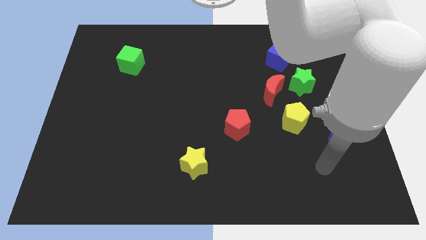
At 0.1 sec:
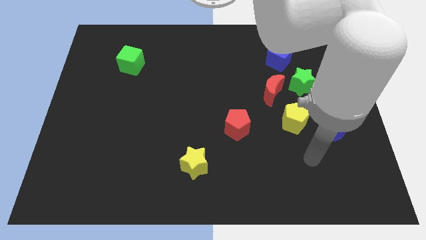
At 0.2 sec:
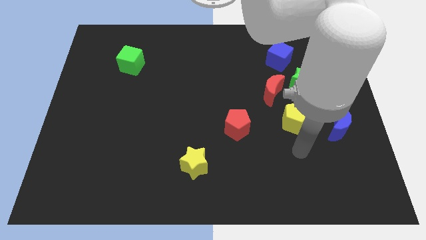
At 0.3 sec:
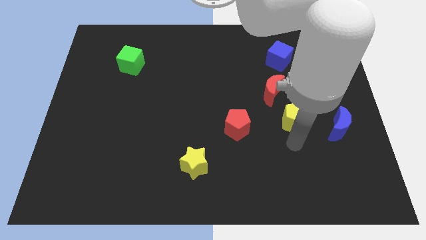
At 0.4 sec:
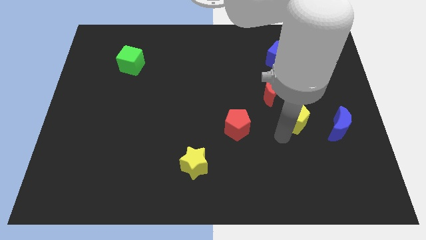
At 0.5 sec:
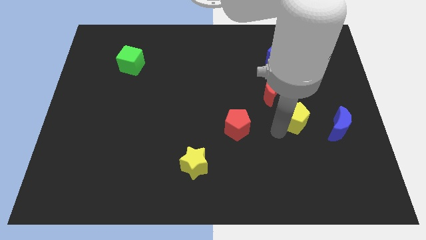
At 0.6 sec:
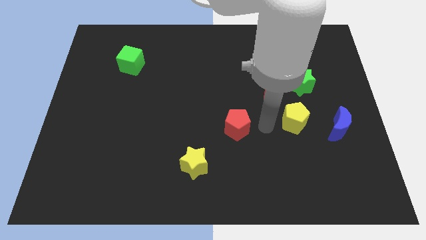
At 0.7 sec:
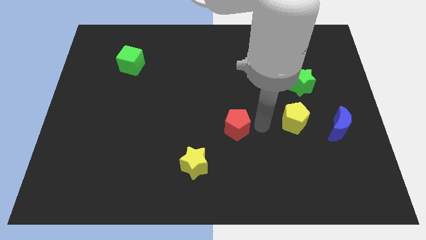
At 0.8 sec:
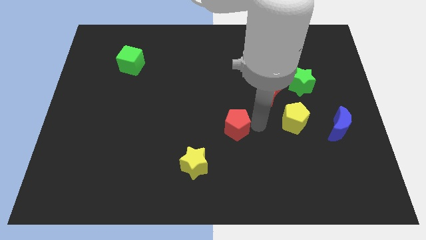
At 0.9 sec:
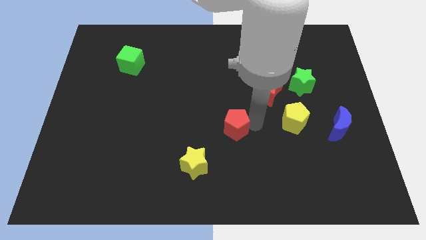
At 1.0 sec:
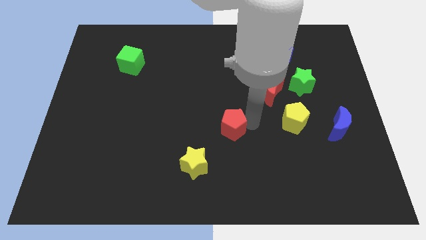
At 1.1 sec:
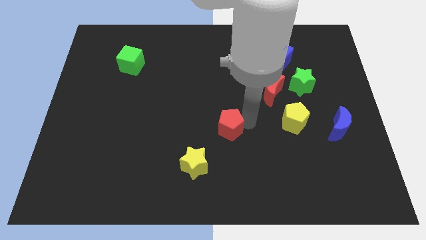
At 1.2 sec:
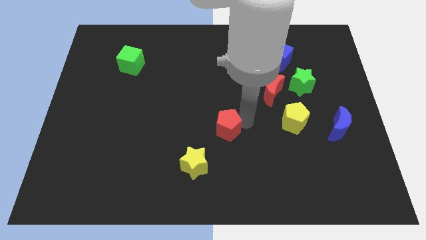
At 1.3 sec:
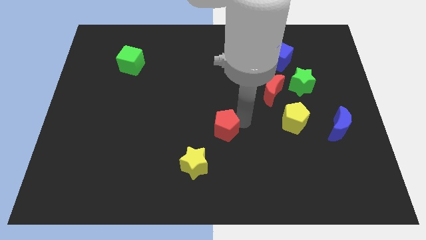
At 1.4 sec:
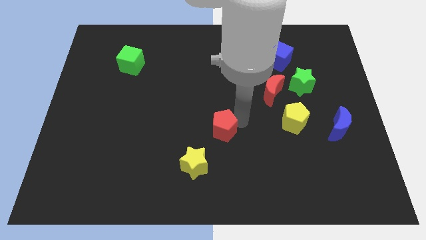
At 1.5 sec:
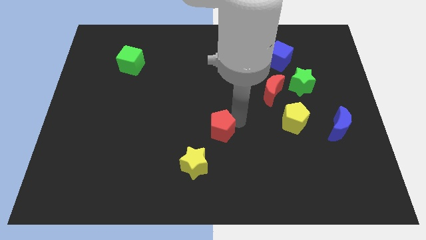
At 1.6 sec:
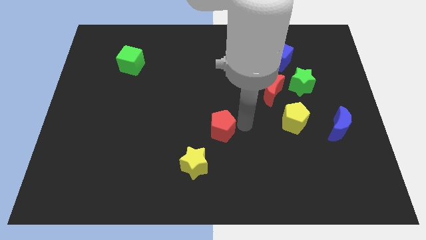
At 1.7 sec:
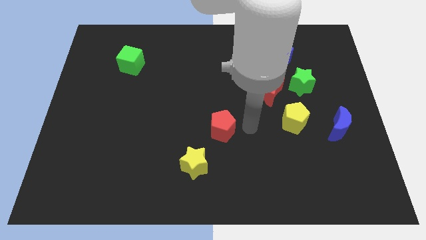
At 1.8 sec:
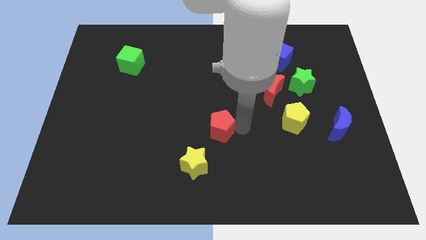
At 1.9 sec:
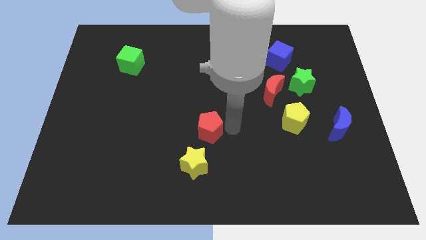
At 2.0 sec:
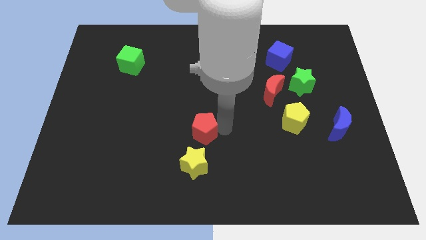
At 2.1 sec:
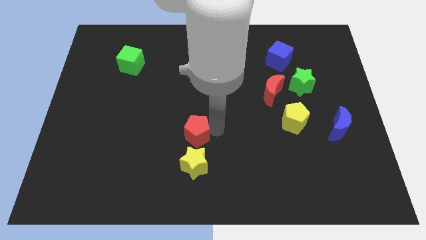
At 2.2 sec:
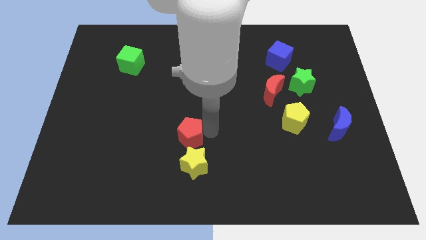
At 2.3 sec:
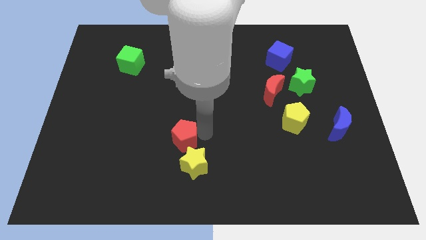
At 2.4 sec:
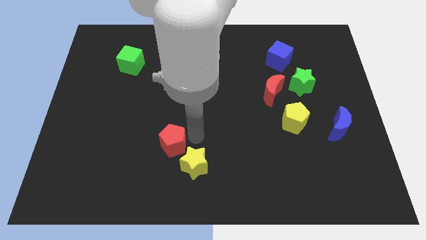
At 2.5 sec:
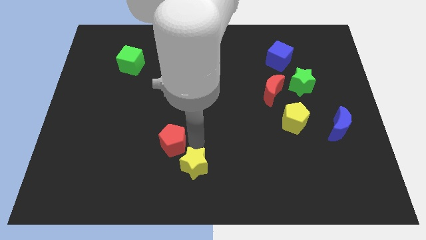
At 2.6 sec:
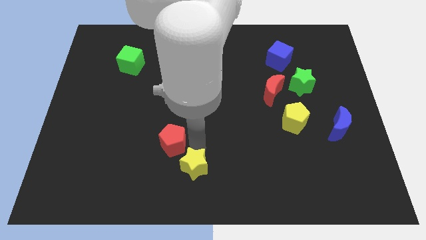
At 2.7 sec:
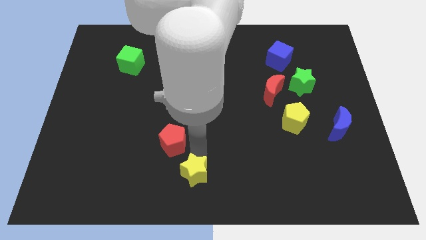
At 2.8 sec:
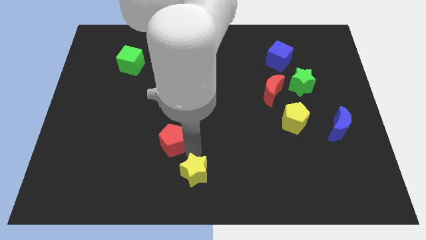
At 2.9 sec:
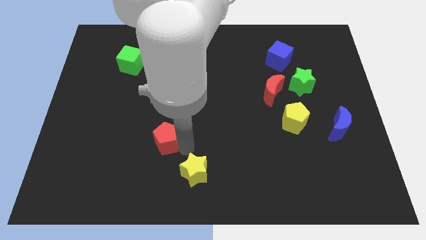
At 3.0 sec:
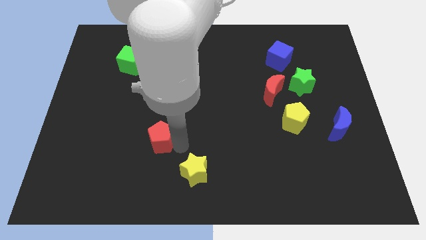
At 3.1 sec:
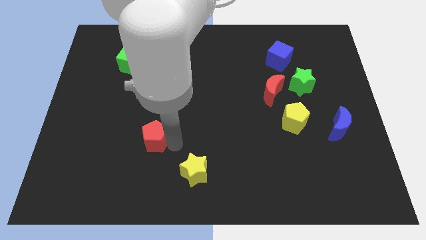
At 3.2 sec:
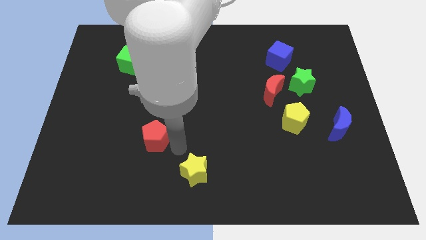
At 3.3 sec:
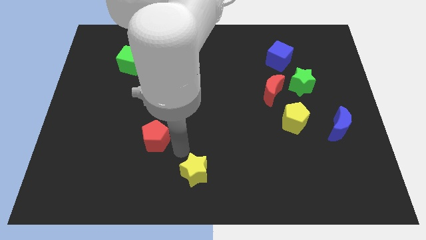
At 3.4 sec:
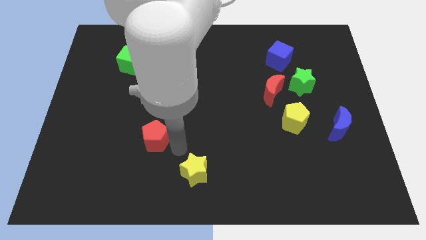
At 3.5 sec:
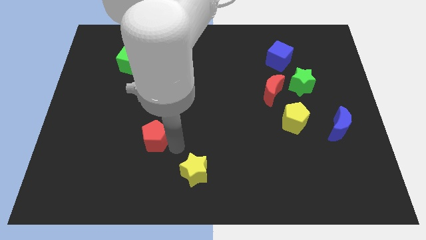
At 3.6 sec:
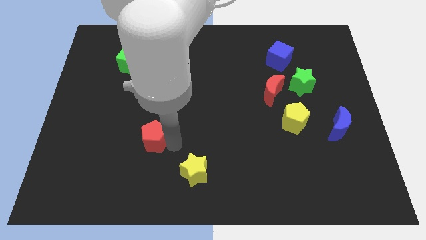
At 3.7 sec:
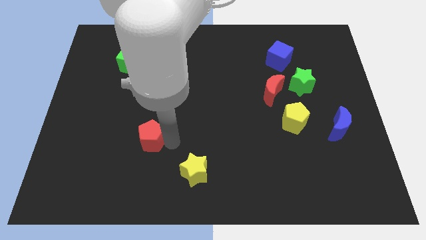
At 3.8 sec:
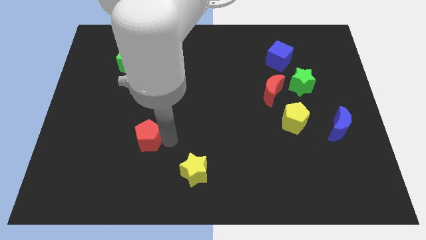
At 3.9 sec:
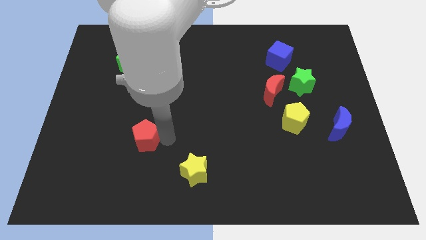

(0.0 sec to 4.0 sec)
slide the red pentagon to the left

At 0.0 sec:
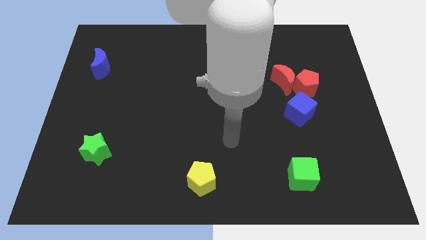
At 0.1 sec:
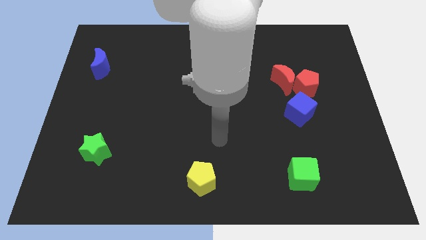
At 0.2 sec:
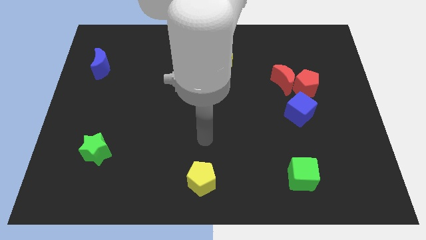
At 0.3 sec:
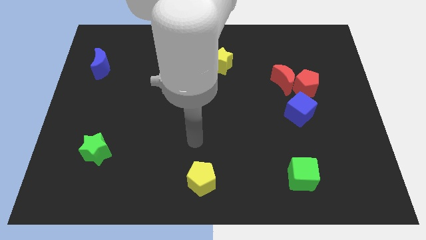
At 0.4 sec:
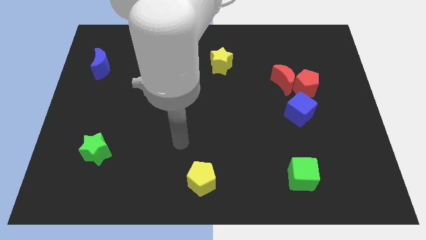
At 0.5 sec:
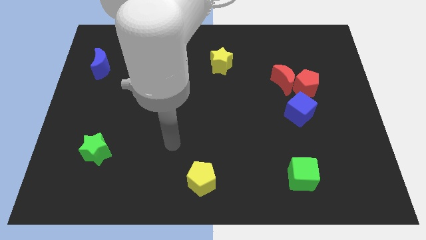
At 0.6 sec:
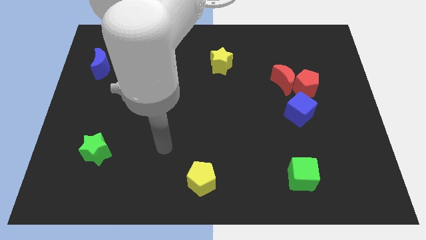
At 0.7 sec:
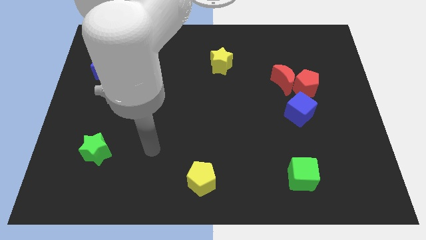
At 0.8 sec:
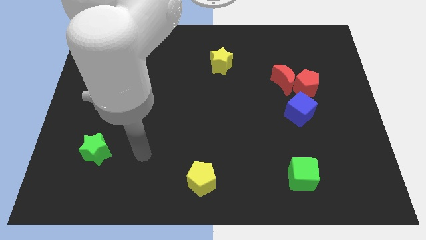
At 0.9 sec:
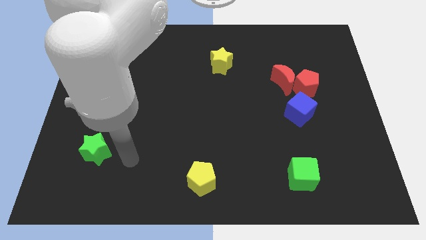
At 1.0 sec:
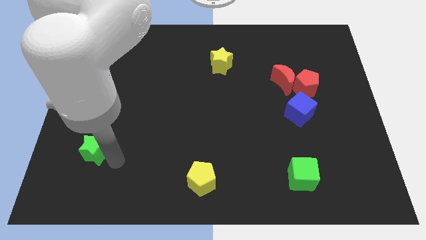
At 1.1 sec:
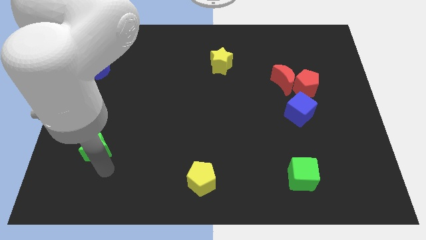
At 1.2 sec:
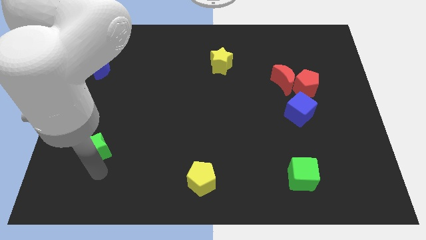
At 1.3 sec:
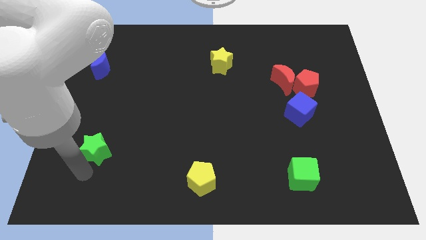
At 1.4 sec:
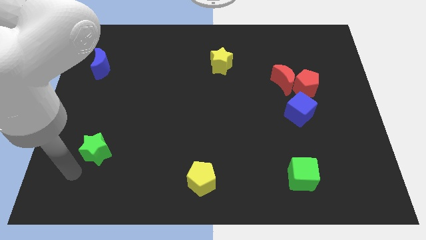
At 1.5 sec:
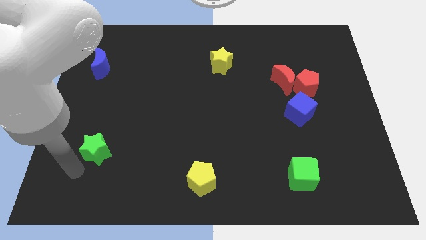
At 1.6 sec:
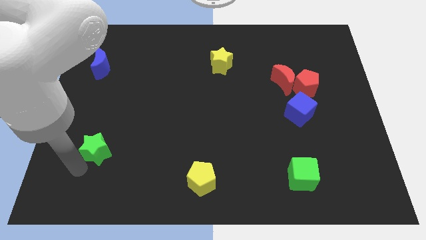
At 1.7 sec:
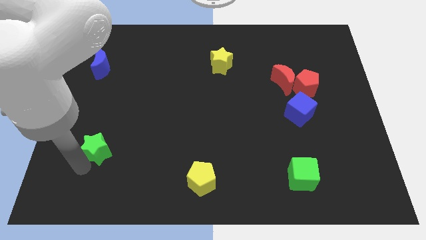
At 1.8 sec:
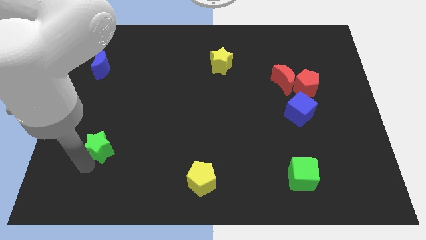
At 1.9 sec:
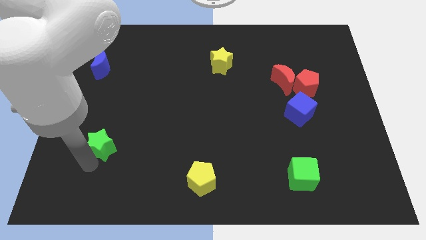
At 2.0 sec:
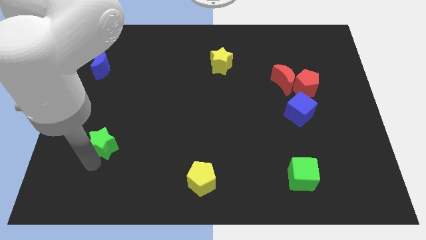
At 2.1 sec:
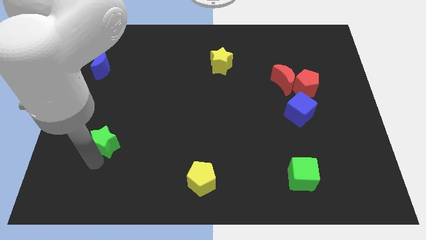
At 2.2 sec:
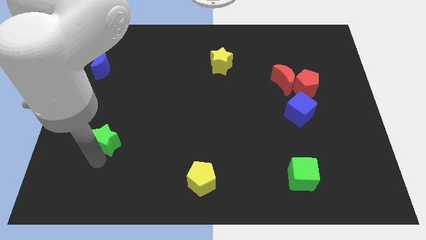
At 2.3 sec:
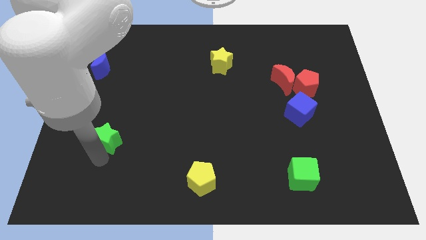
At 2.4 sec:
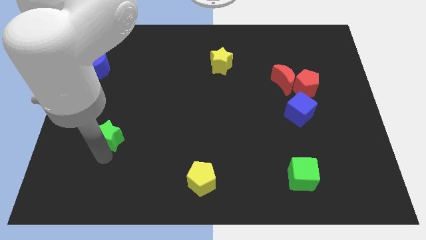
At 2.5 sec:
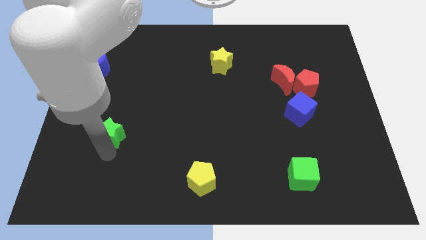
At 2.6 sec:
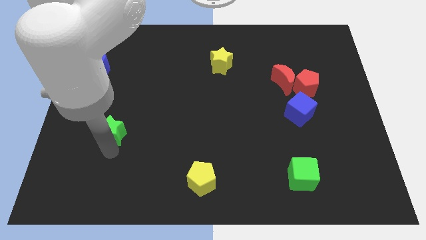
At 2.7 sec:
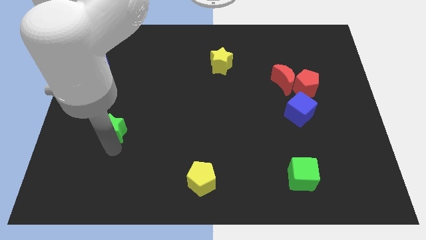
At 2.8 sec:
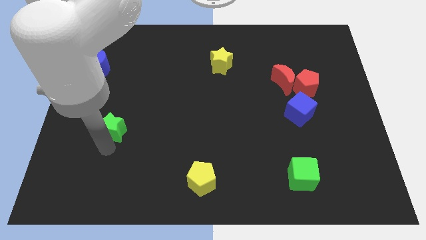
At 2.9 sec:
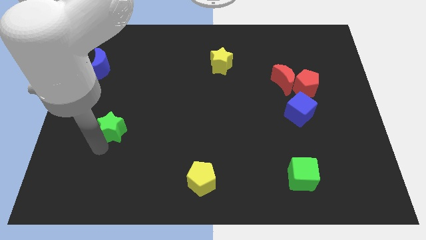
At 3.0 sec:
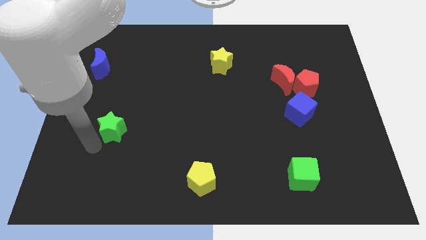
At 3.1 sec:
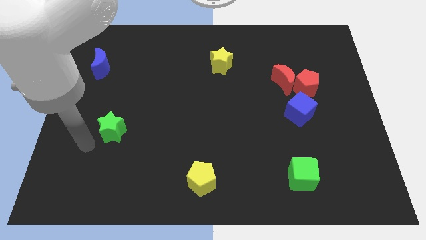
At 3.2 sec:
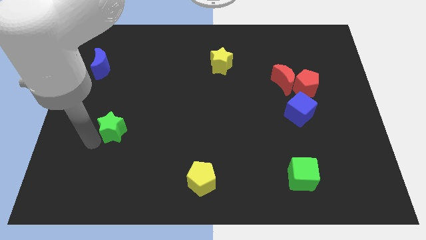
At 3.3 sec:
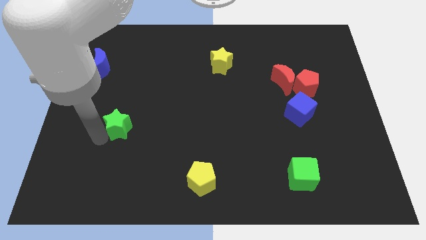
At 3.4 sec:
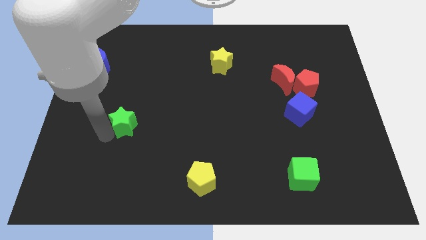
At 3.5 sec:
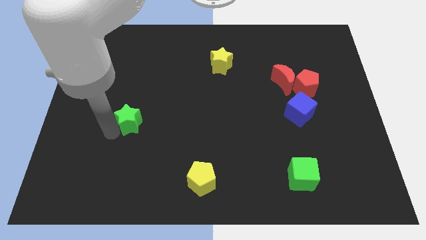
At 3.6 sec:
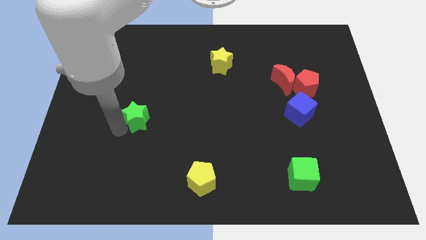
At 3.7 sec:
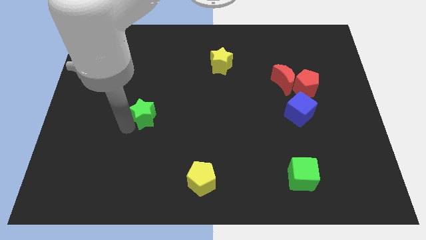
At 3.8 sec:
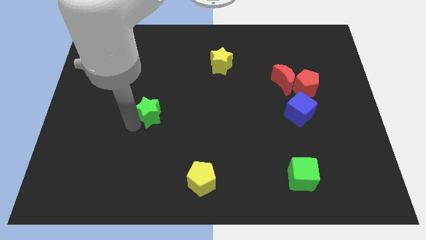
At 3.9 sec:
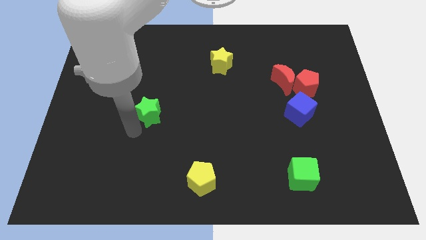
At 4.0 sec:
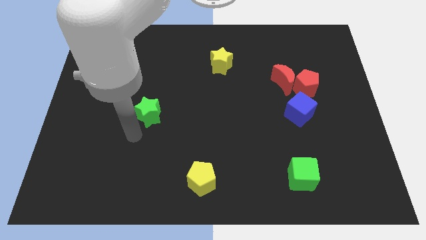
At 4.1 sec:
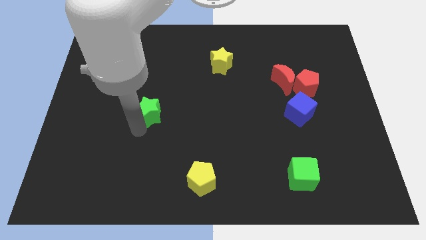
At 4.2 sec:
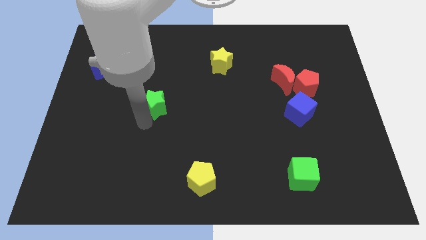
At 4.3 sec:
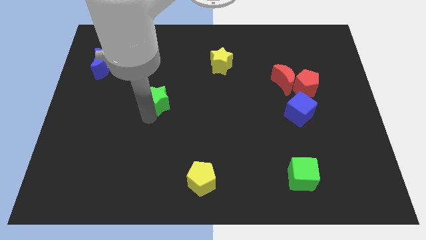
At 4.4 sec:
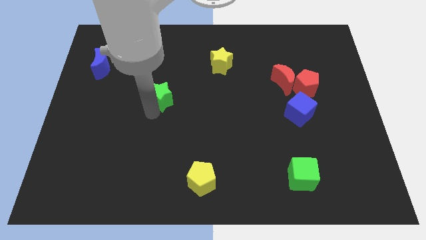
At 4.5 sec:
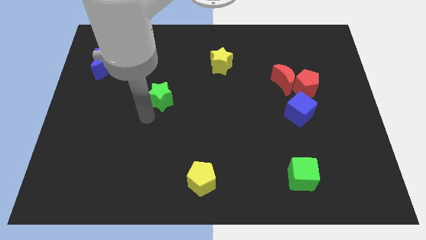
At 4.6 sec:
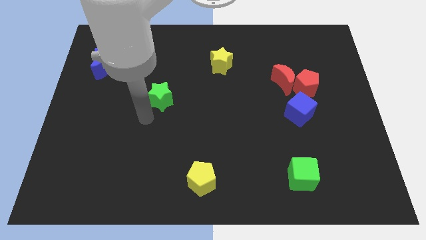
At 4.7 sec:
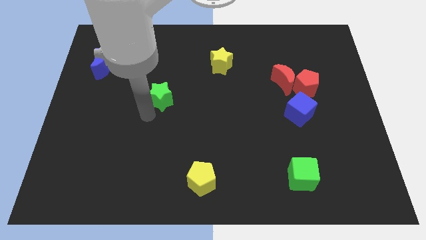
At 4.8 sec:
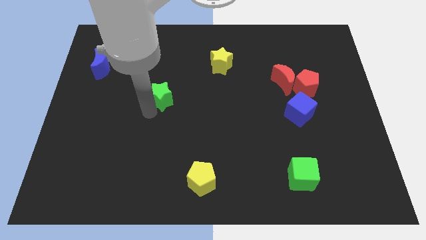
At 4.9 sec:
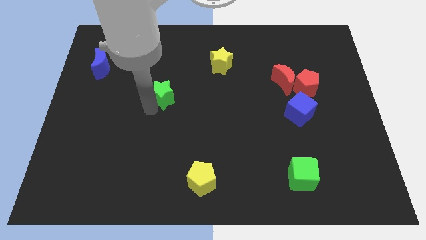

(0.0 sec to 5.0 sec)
move the green star upwards and right diagonally
